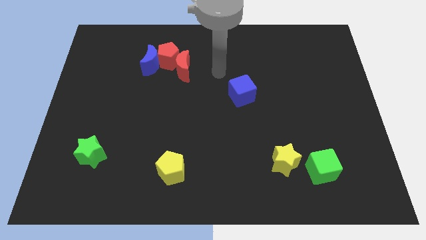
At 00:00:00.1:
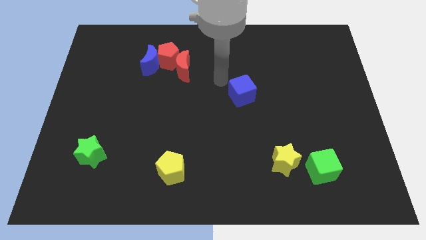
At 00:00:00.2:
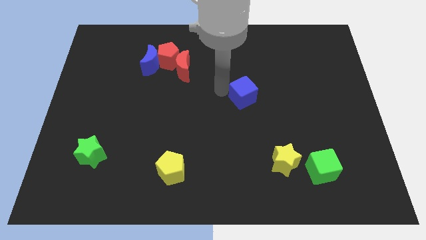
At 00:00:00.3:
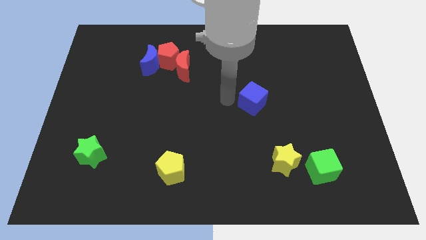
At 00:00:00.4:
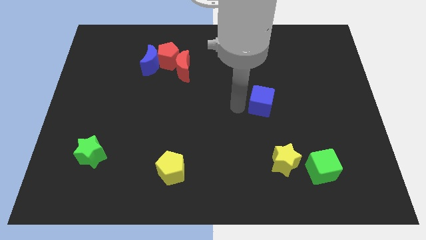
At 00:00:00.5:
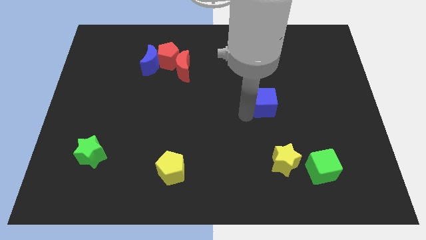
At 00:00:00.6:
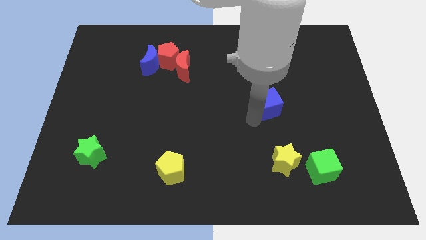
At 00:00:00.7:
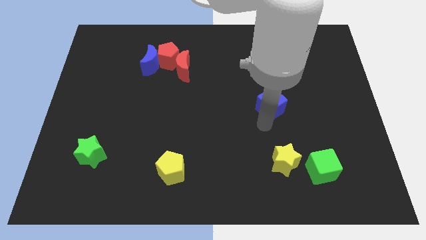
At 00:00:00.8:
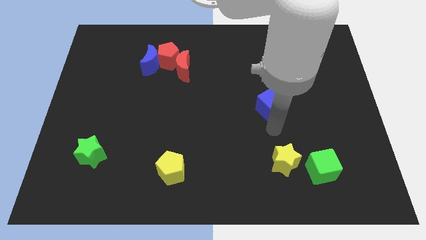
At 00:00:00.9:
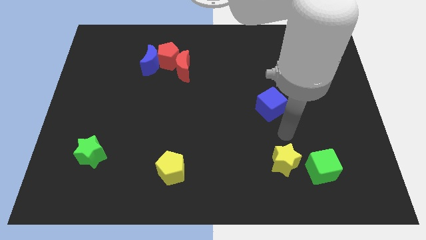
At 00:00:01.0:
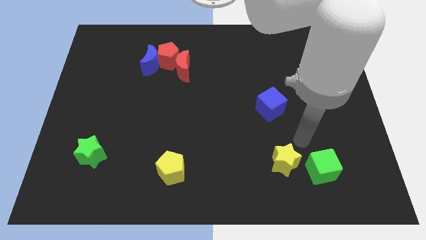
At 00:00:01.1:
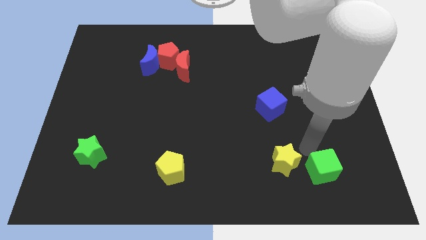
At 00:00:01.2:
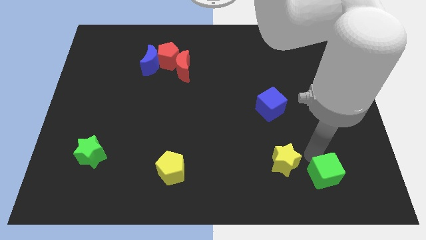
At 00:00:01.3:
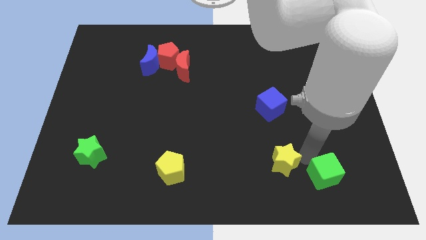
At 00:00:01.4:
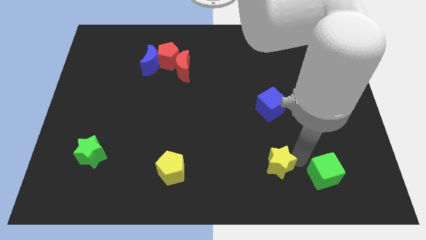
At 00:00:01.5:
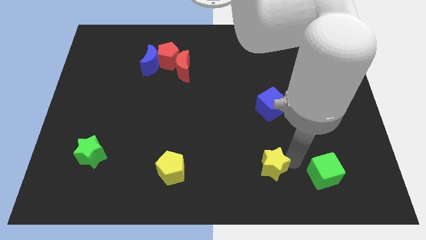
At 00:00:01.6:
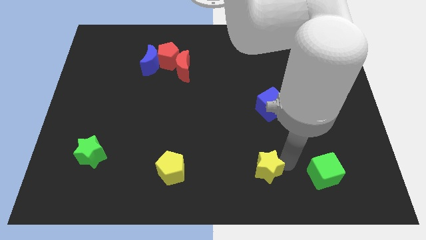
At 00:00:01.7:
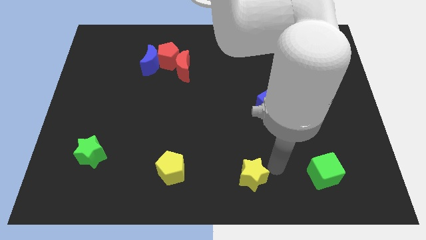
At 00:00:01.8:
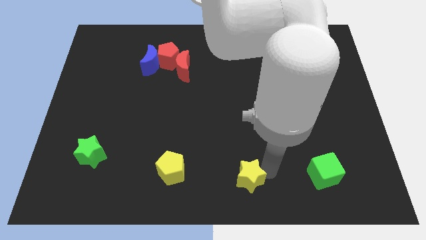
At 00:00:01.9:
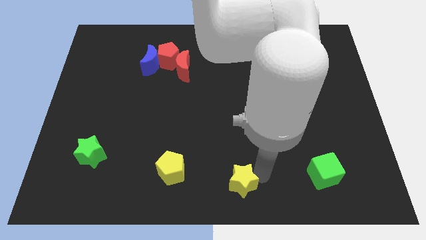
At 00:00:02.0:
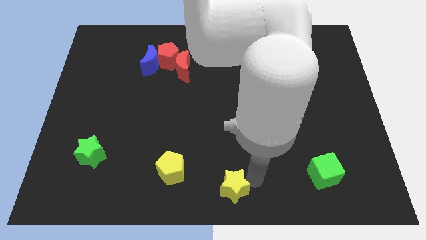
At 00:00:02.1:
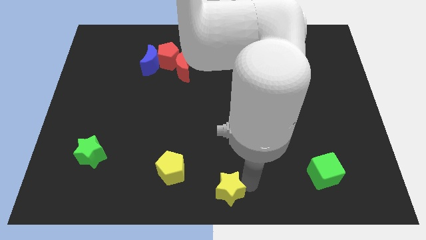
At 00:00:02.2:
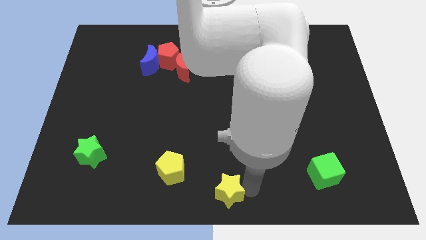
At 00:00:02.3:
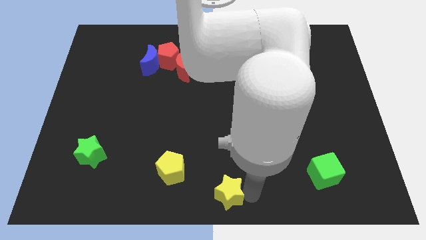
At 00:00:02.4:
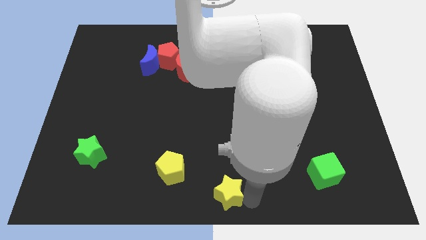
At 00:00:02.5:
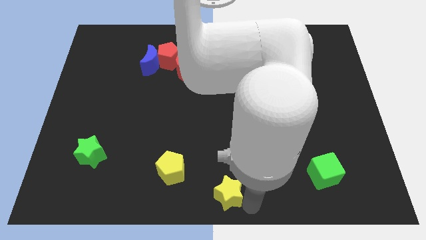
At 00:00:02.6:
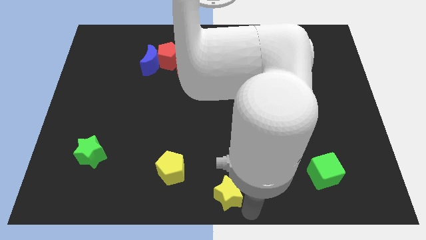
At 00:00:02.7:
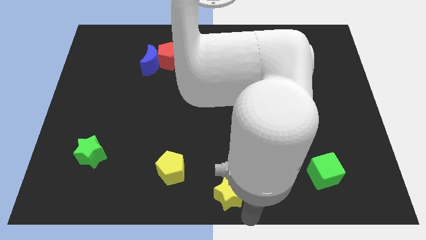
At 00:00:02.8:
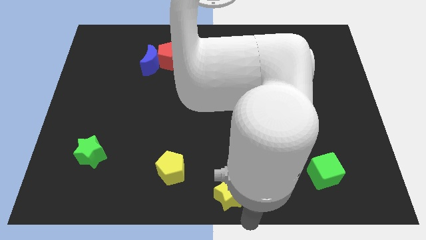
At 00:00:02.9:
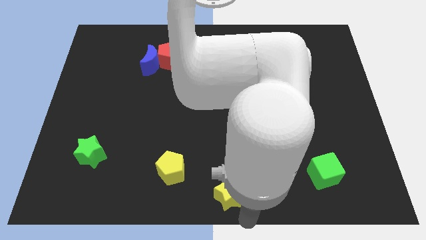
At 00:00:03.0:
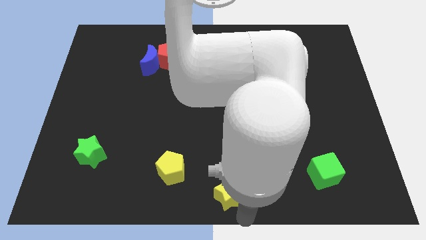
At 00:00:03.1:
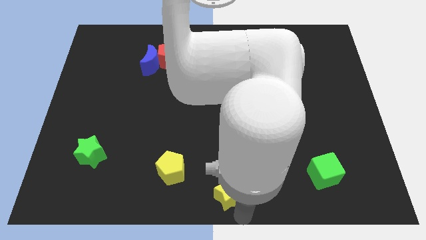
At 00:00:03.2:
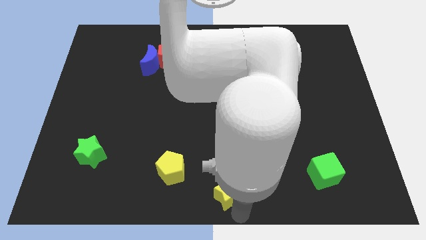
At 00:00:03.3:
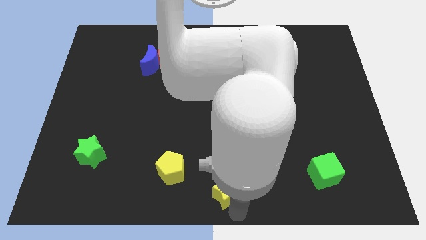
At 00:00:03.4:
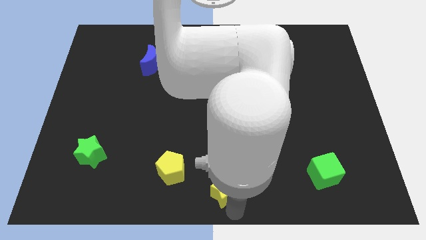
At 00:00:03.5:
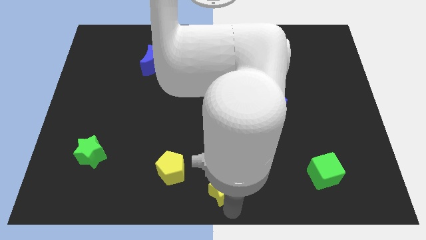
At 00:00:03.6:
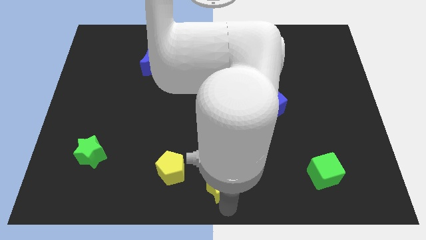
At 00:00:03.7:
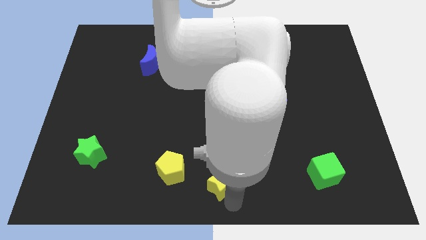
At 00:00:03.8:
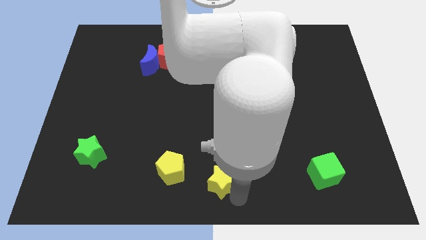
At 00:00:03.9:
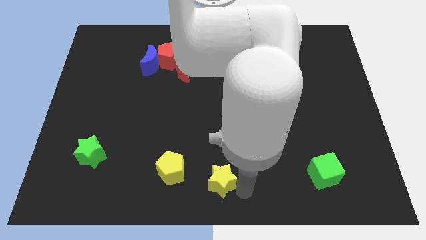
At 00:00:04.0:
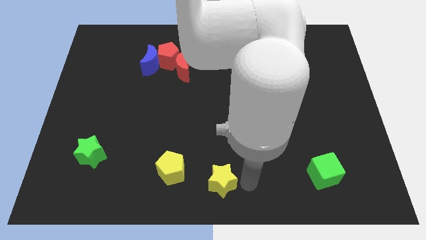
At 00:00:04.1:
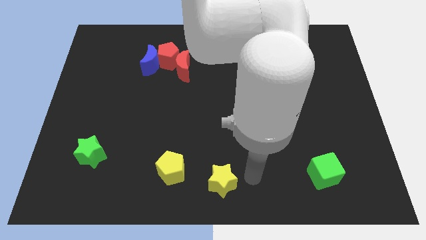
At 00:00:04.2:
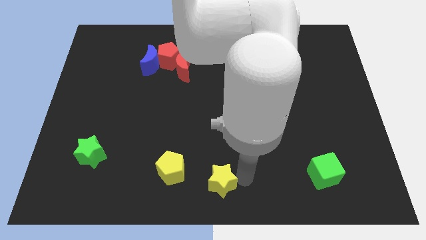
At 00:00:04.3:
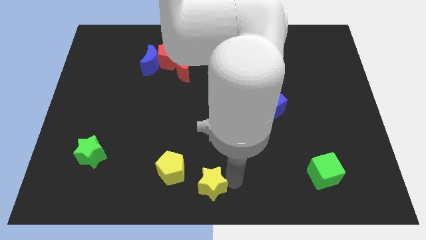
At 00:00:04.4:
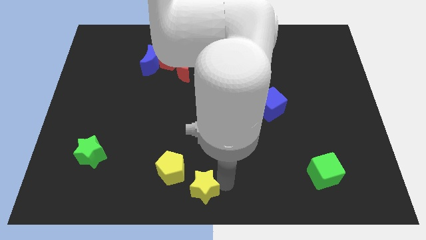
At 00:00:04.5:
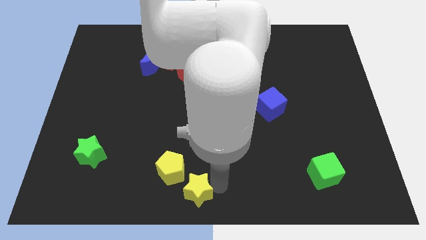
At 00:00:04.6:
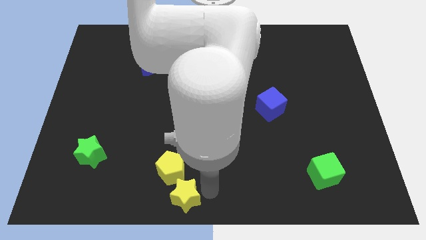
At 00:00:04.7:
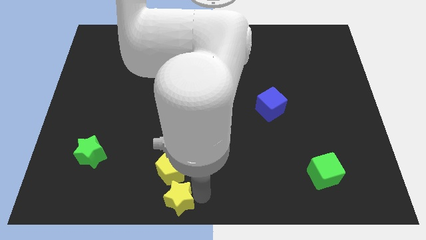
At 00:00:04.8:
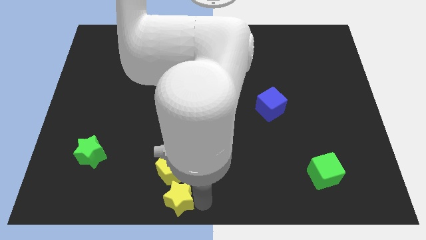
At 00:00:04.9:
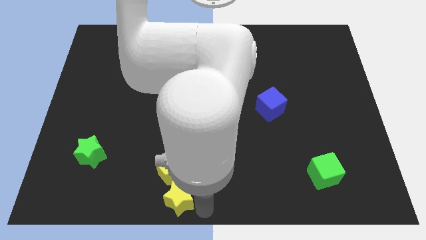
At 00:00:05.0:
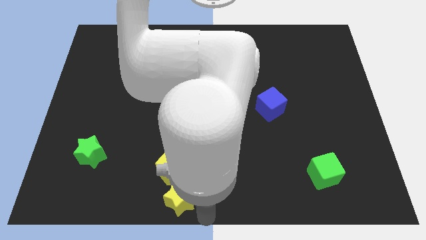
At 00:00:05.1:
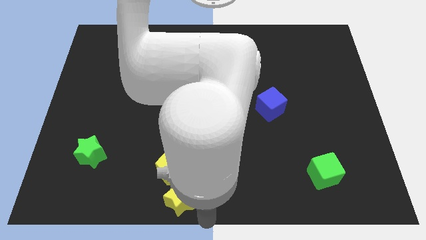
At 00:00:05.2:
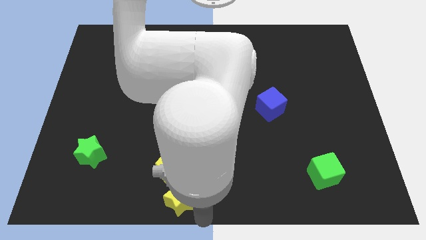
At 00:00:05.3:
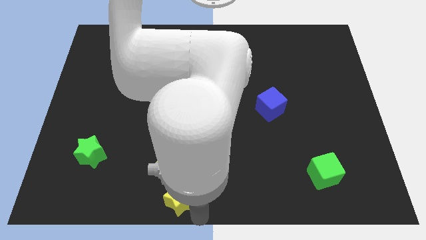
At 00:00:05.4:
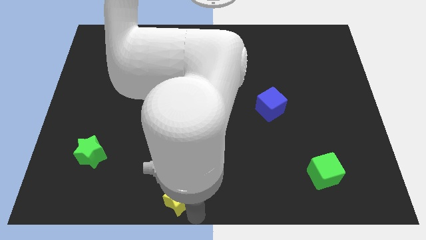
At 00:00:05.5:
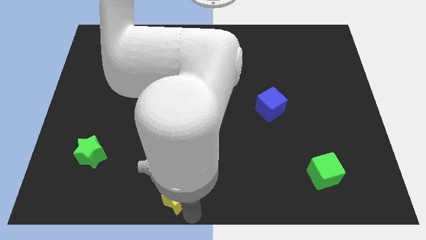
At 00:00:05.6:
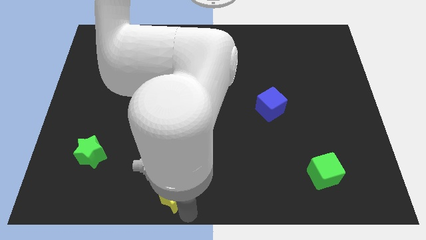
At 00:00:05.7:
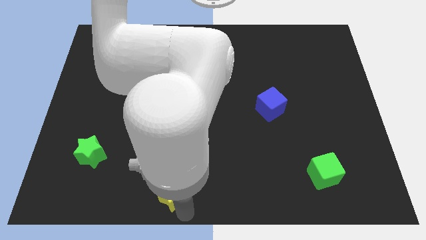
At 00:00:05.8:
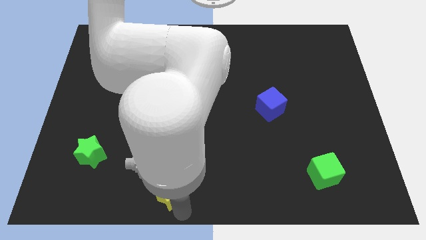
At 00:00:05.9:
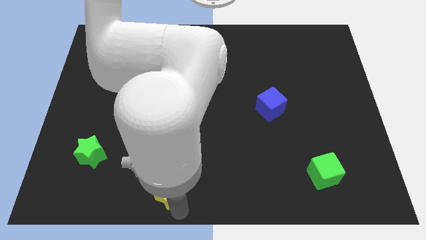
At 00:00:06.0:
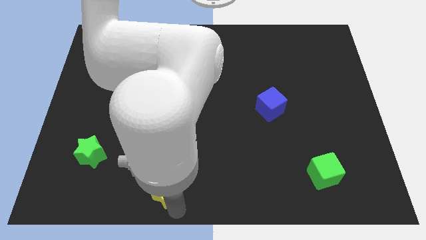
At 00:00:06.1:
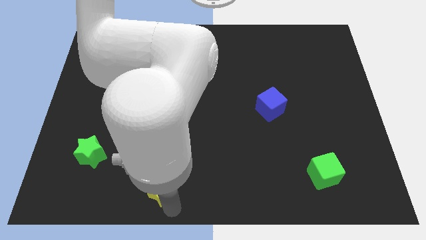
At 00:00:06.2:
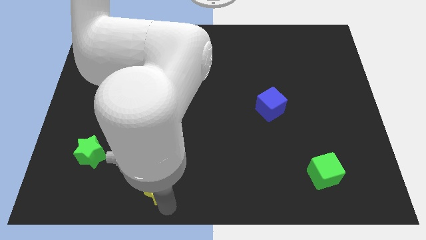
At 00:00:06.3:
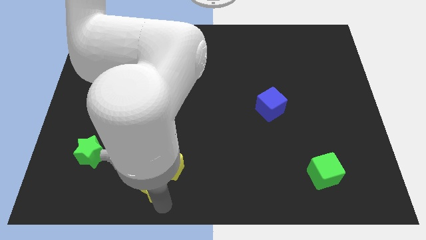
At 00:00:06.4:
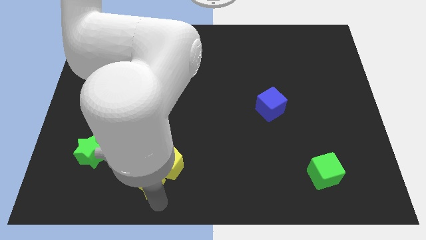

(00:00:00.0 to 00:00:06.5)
put the yellow star just left of the yellow pentagon
